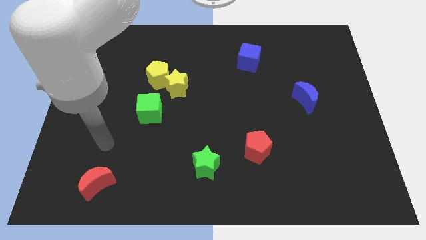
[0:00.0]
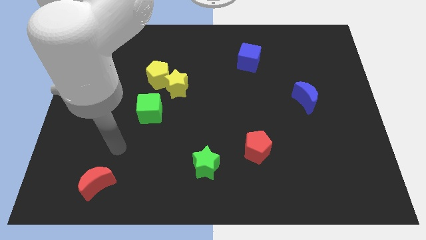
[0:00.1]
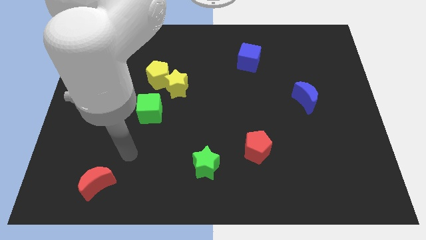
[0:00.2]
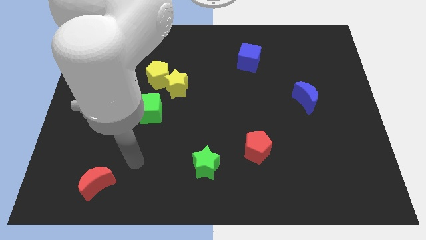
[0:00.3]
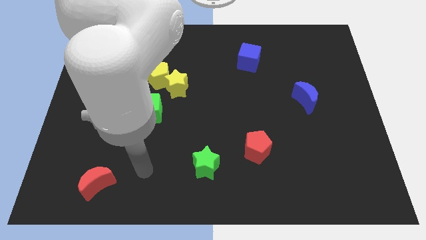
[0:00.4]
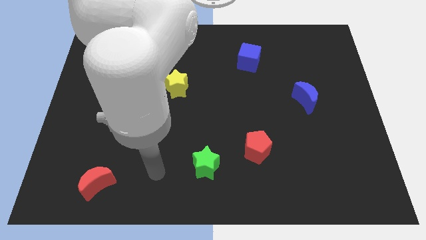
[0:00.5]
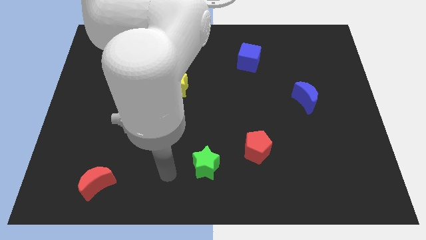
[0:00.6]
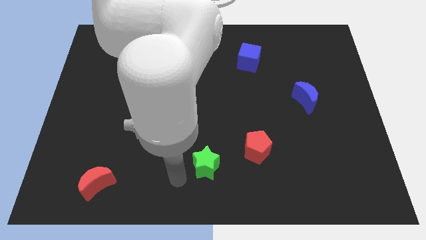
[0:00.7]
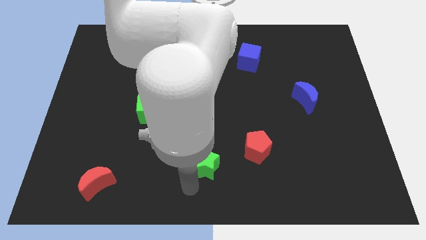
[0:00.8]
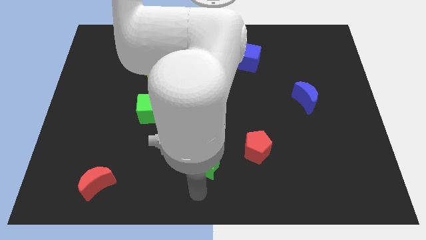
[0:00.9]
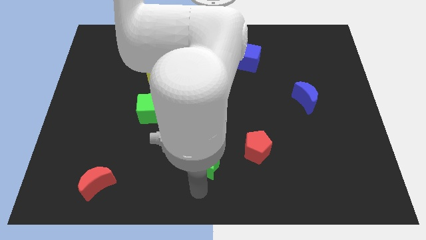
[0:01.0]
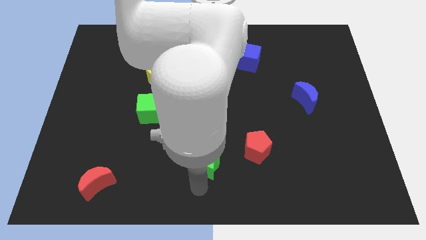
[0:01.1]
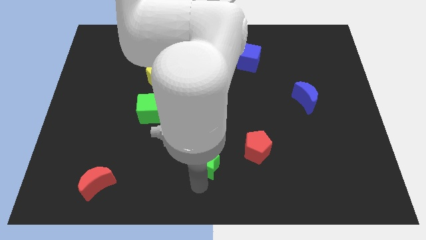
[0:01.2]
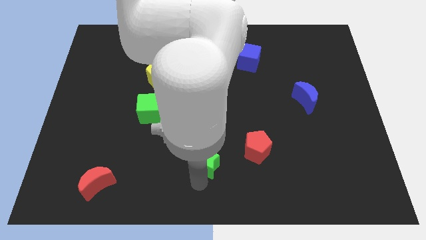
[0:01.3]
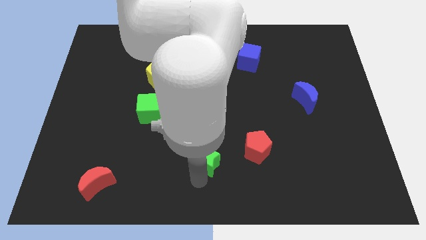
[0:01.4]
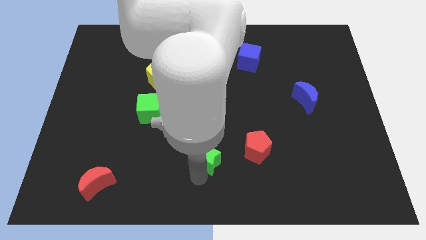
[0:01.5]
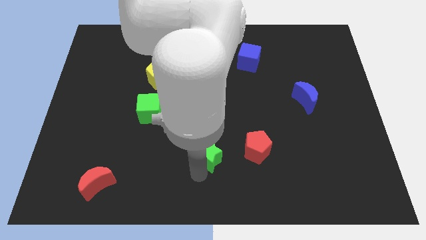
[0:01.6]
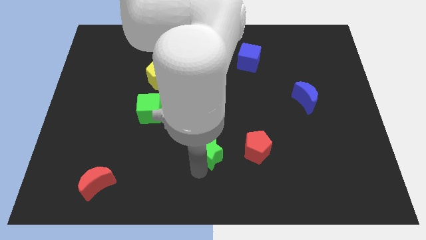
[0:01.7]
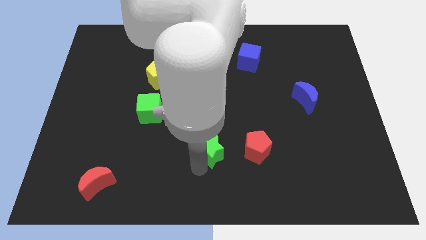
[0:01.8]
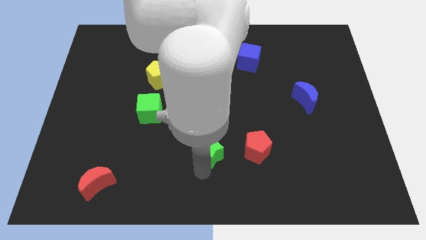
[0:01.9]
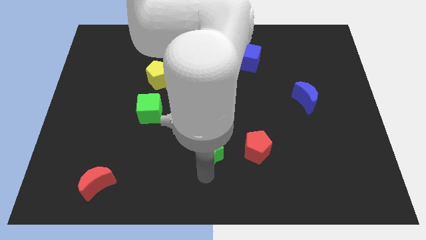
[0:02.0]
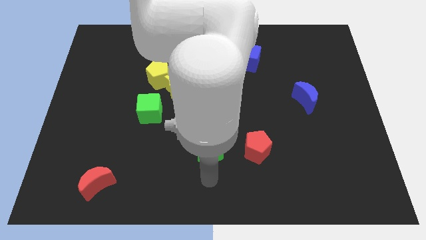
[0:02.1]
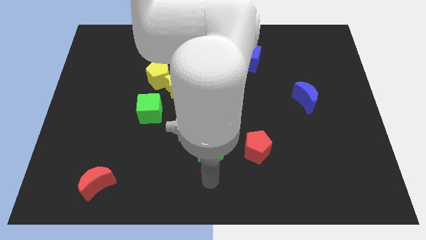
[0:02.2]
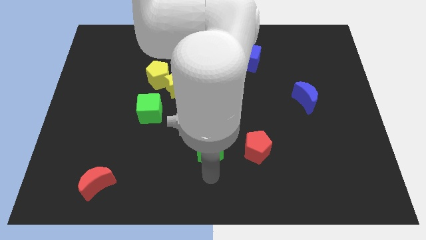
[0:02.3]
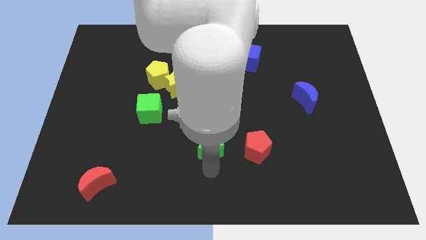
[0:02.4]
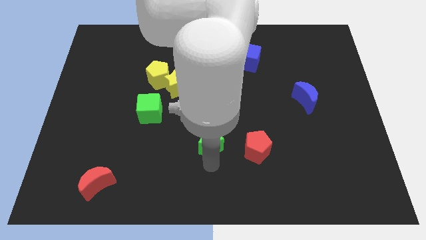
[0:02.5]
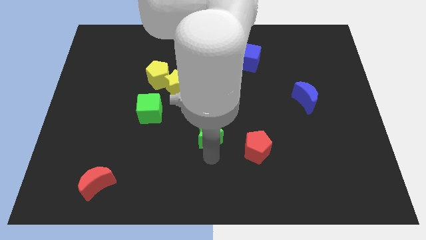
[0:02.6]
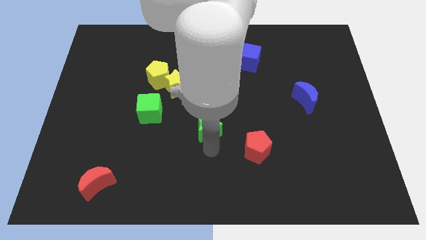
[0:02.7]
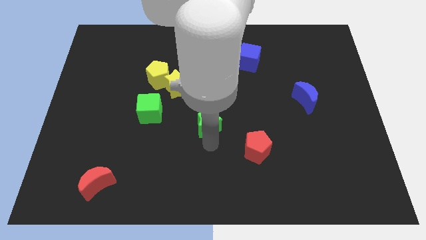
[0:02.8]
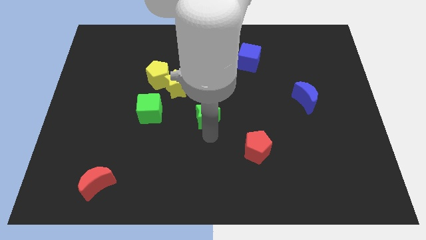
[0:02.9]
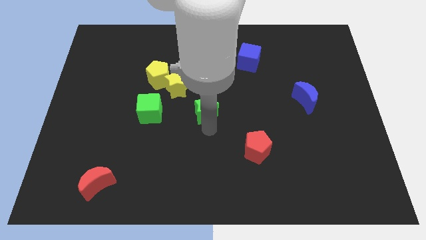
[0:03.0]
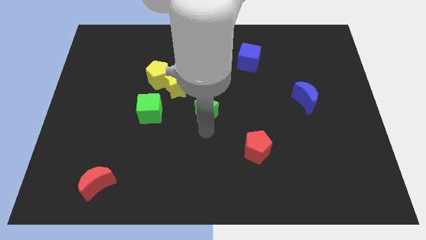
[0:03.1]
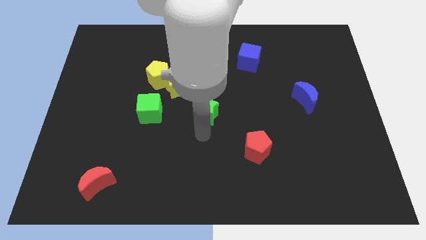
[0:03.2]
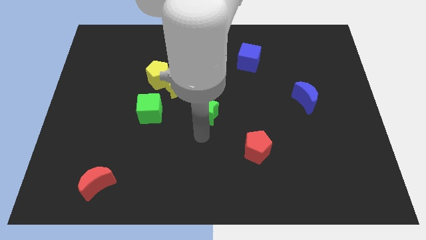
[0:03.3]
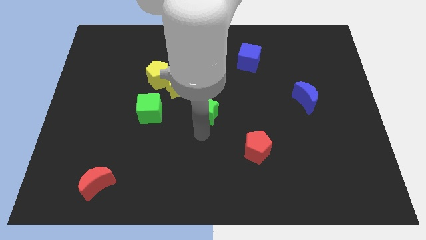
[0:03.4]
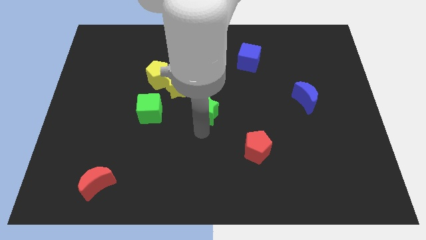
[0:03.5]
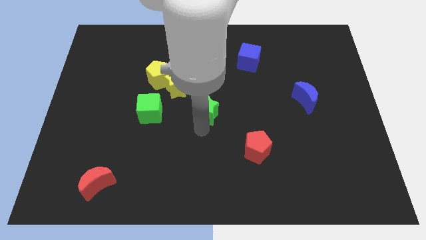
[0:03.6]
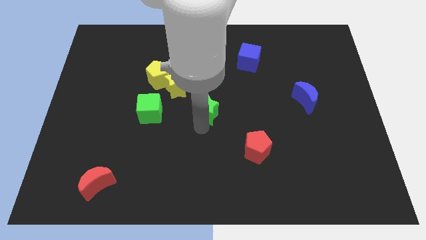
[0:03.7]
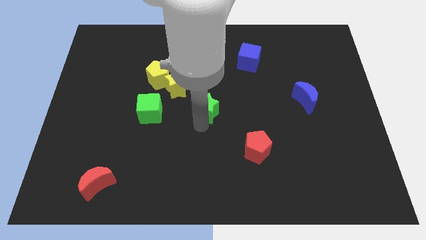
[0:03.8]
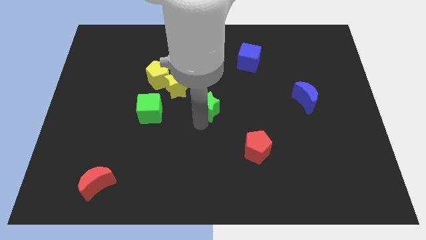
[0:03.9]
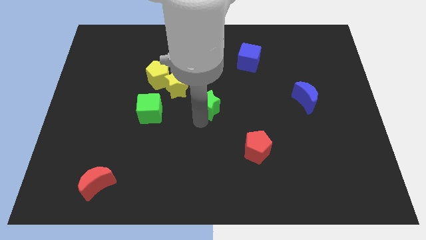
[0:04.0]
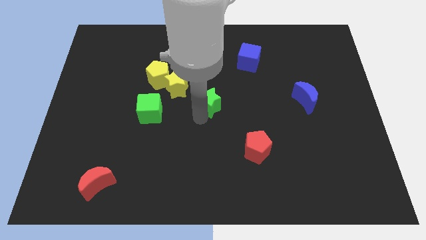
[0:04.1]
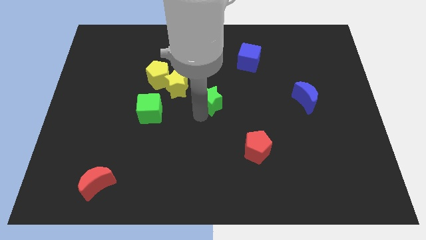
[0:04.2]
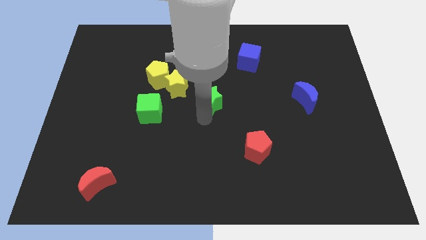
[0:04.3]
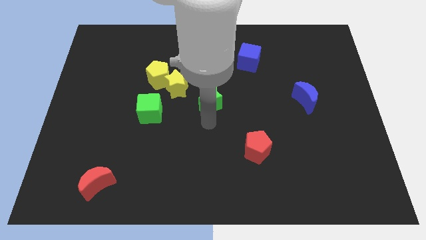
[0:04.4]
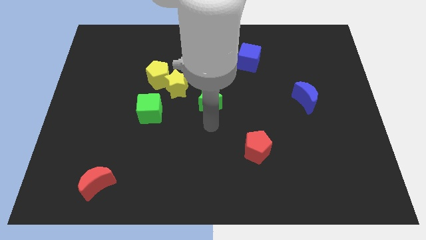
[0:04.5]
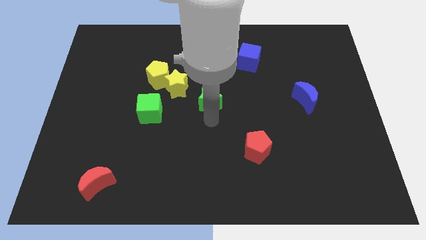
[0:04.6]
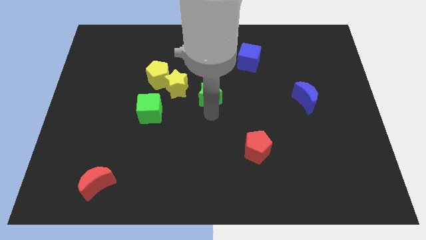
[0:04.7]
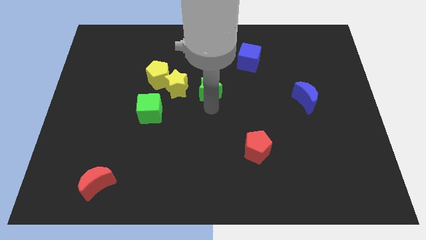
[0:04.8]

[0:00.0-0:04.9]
slide the green star up

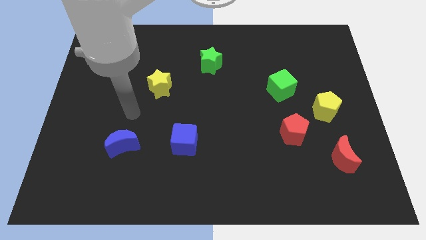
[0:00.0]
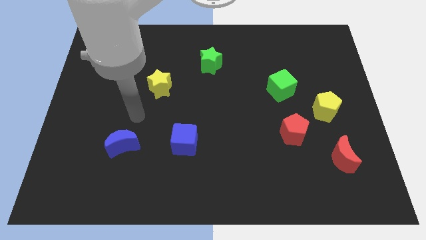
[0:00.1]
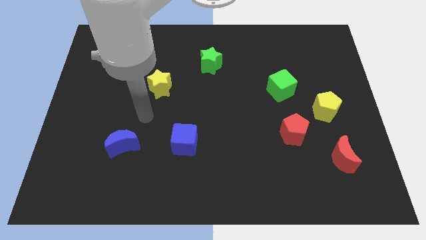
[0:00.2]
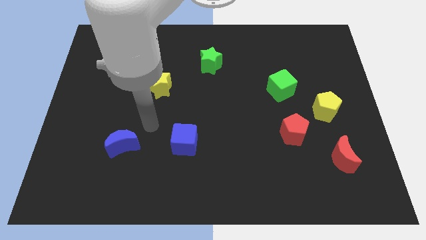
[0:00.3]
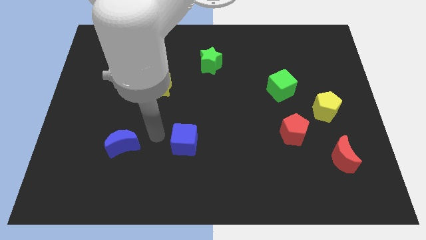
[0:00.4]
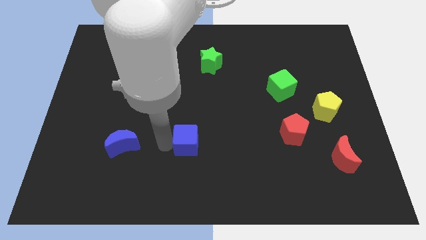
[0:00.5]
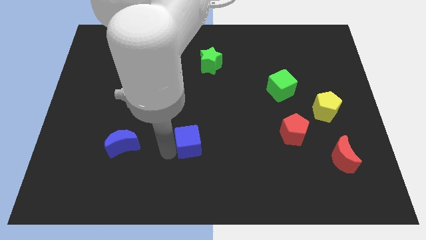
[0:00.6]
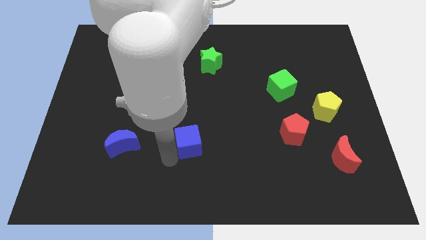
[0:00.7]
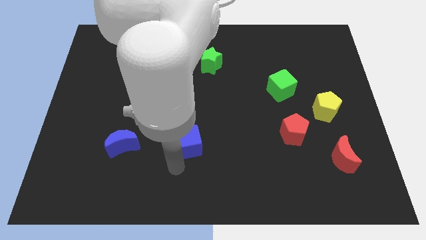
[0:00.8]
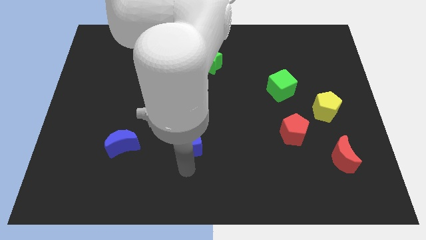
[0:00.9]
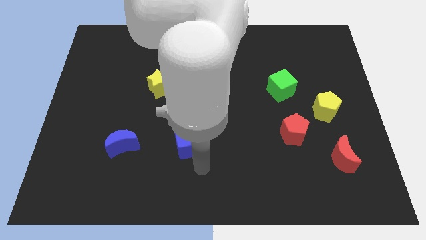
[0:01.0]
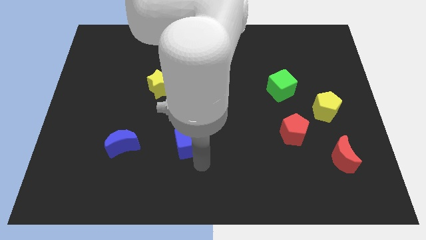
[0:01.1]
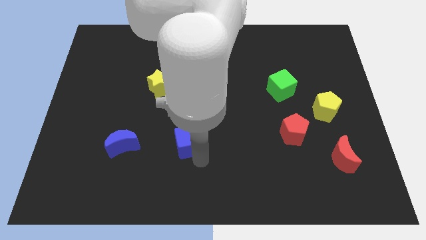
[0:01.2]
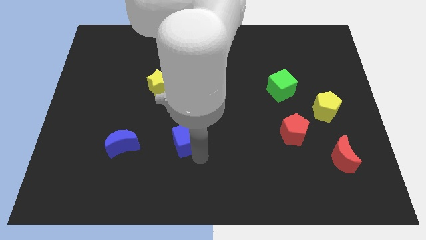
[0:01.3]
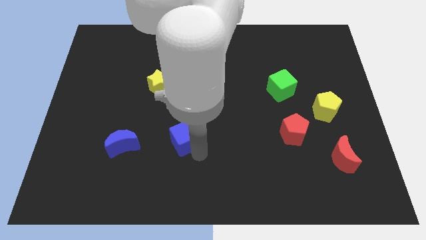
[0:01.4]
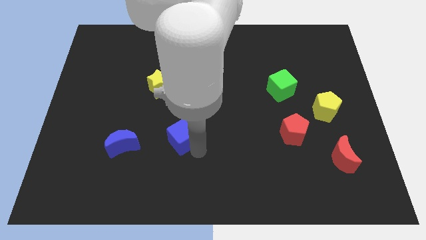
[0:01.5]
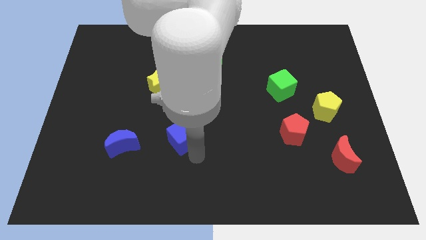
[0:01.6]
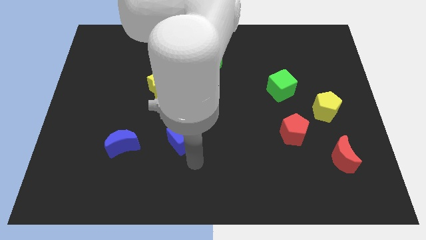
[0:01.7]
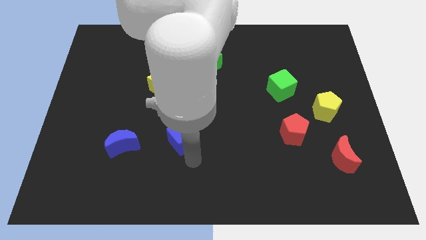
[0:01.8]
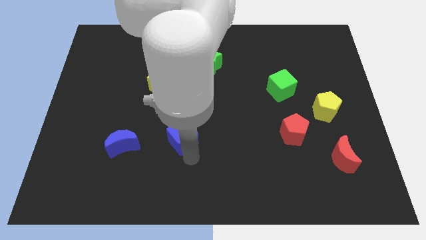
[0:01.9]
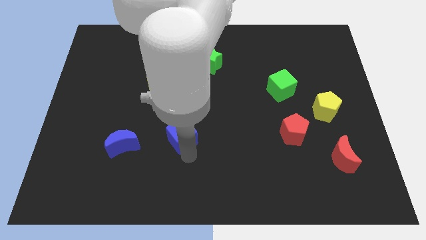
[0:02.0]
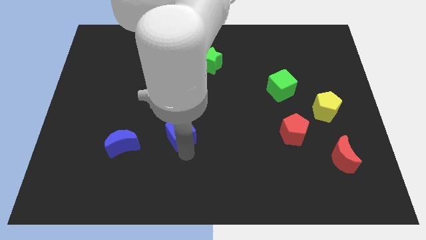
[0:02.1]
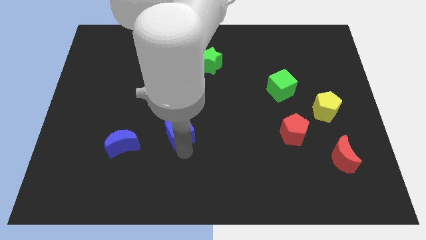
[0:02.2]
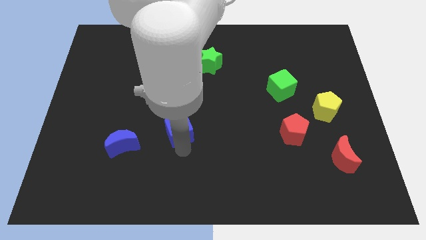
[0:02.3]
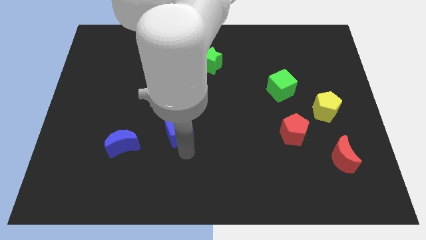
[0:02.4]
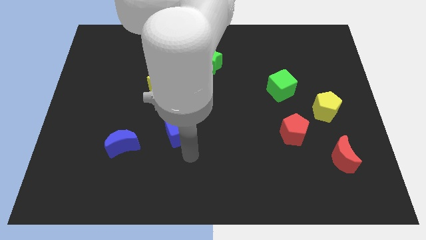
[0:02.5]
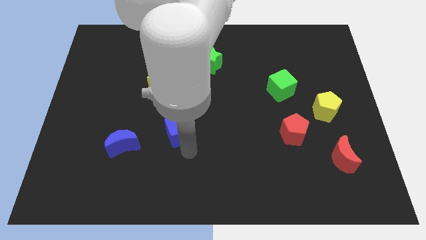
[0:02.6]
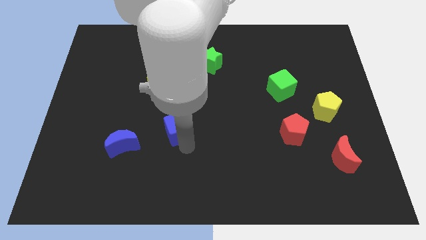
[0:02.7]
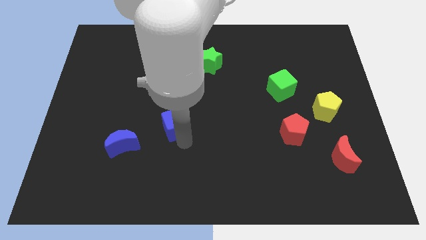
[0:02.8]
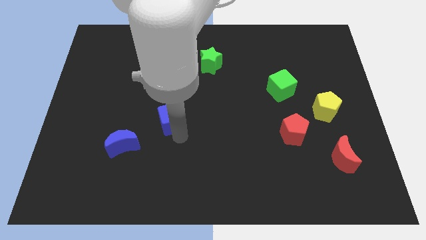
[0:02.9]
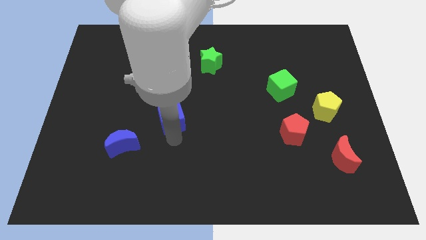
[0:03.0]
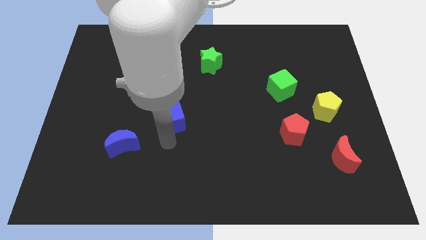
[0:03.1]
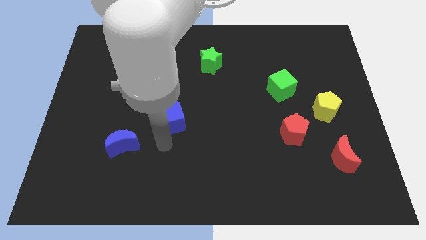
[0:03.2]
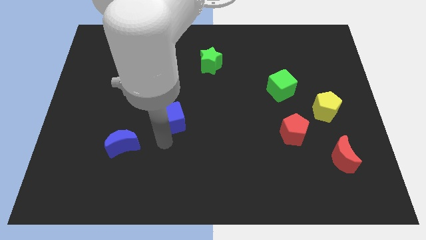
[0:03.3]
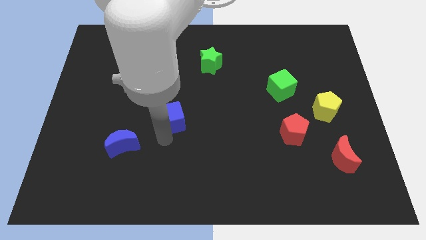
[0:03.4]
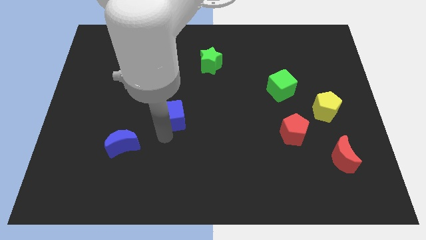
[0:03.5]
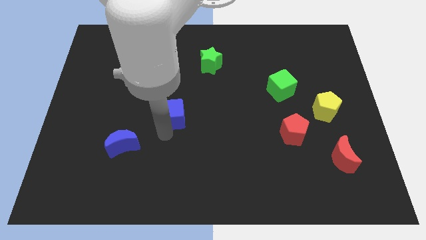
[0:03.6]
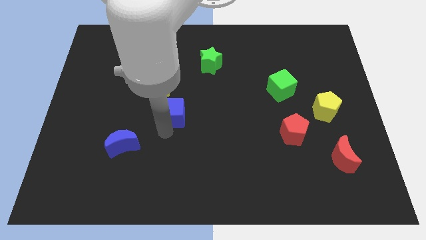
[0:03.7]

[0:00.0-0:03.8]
slightly slide the blue cube upwards
